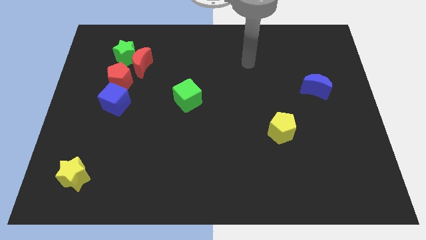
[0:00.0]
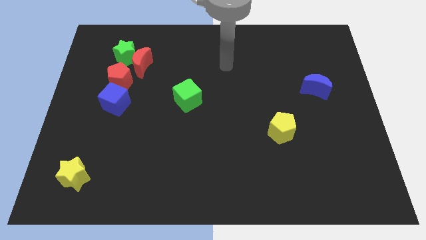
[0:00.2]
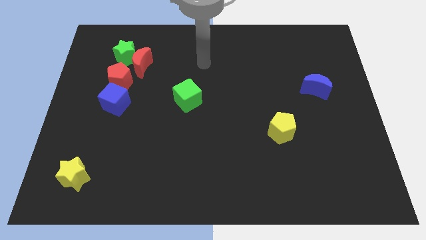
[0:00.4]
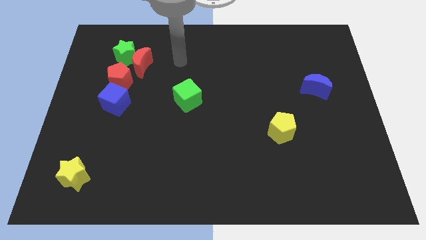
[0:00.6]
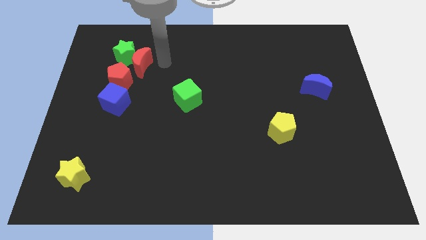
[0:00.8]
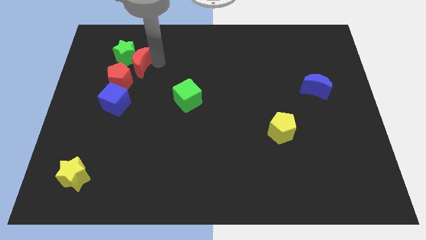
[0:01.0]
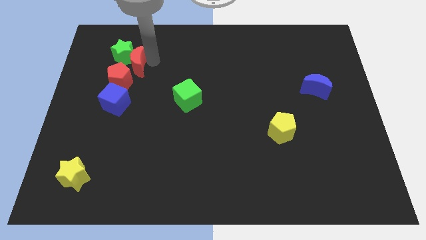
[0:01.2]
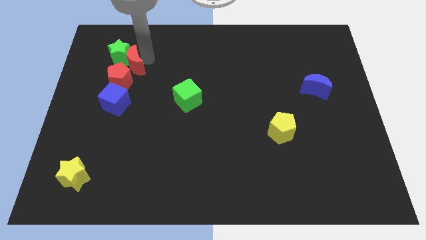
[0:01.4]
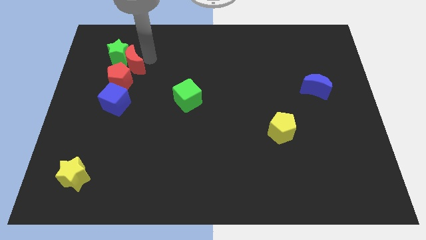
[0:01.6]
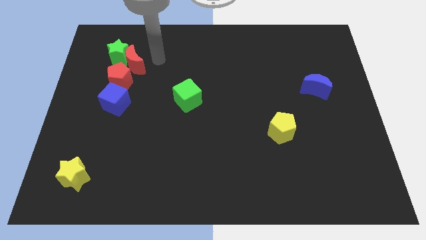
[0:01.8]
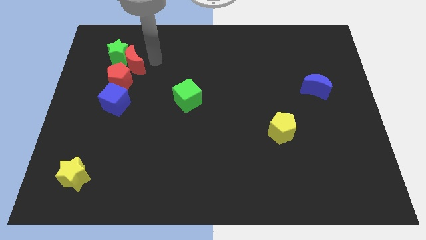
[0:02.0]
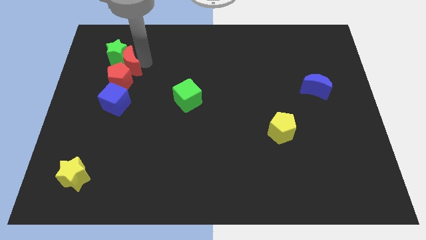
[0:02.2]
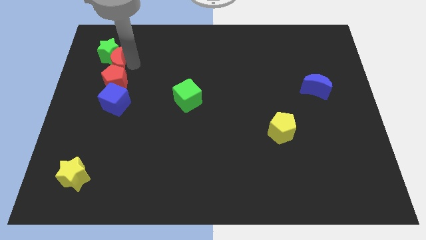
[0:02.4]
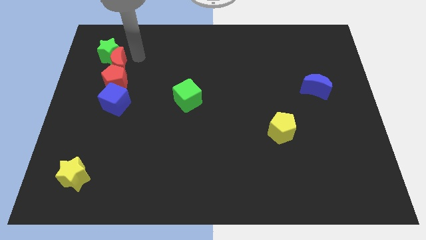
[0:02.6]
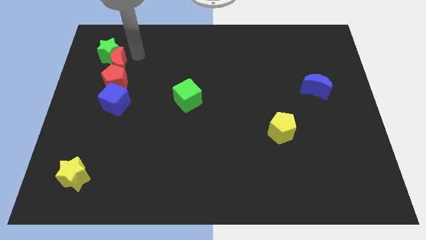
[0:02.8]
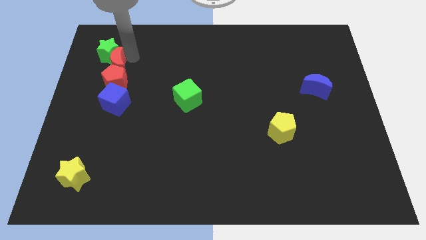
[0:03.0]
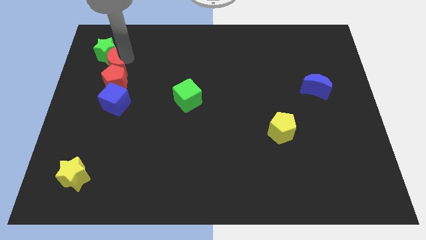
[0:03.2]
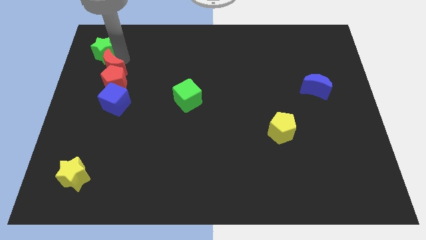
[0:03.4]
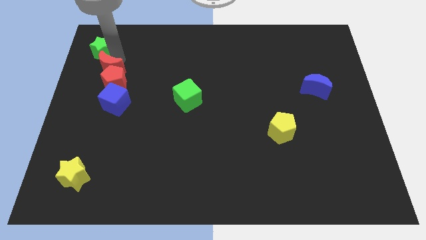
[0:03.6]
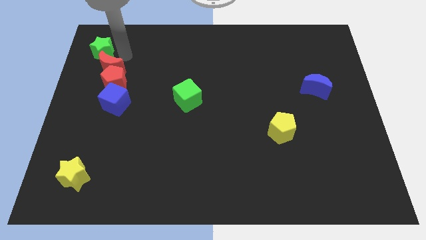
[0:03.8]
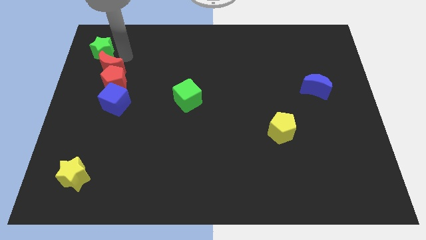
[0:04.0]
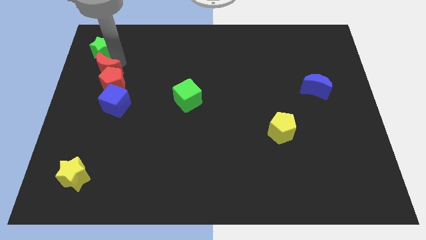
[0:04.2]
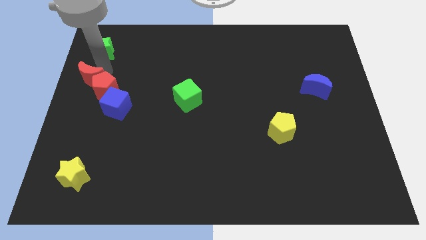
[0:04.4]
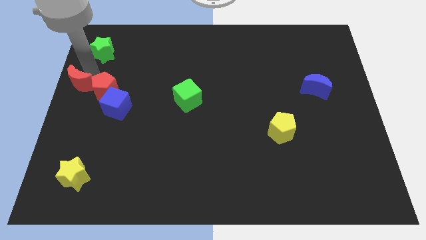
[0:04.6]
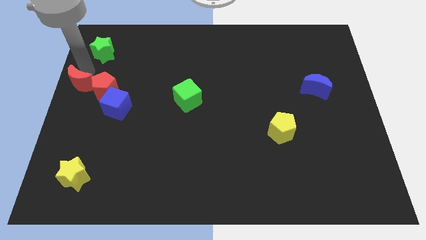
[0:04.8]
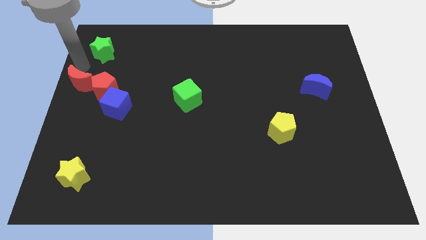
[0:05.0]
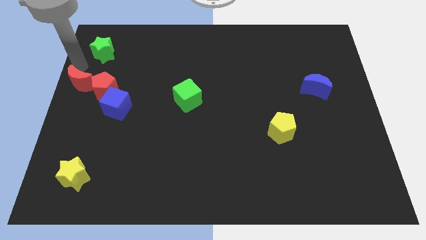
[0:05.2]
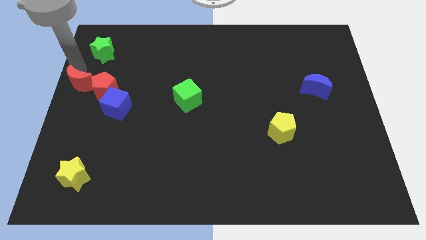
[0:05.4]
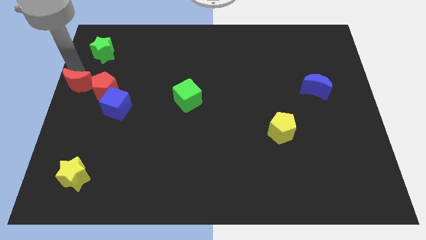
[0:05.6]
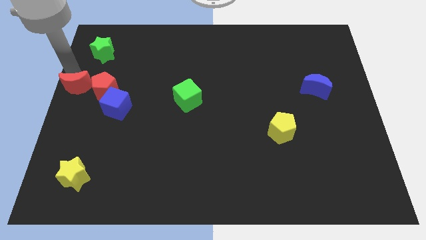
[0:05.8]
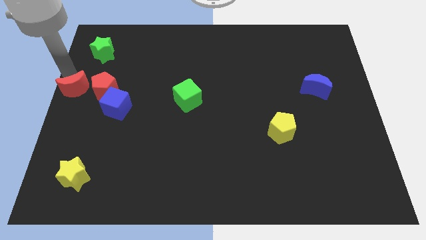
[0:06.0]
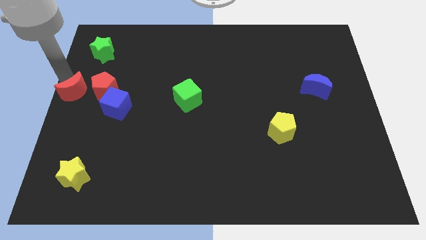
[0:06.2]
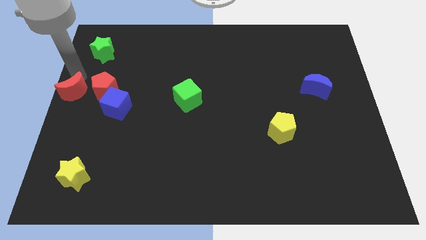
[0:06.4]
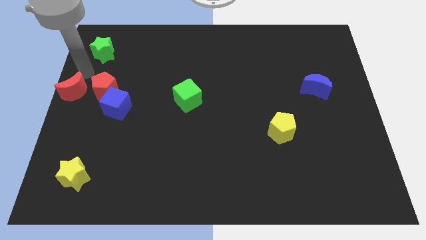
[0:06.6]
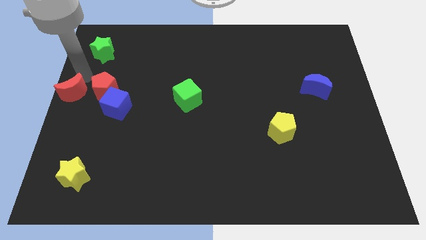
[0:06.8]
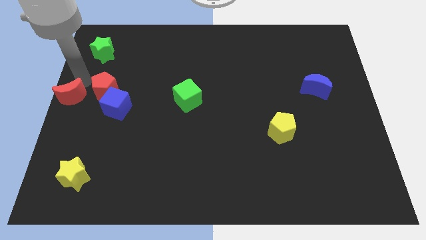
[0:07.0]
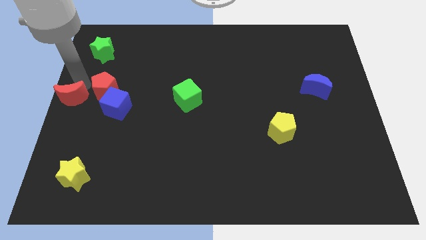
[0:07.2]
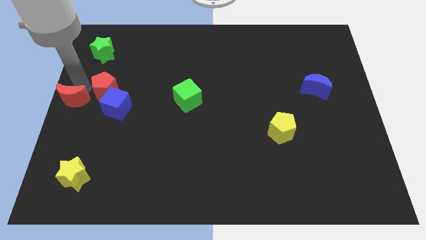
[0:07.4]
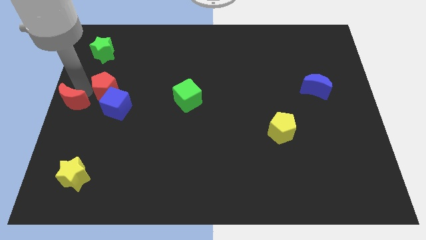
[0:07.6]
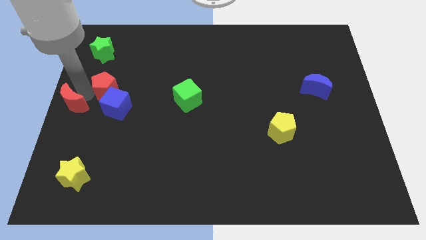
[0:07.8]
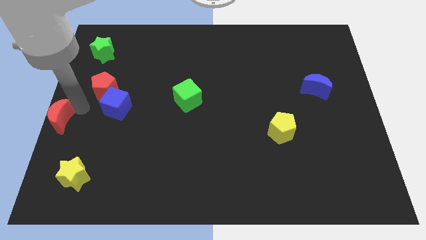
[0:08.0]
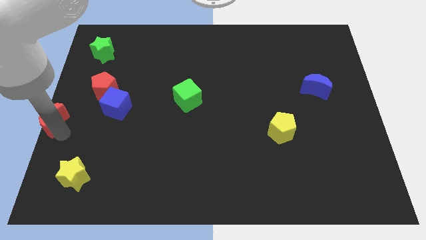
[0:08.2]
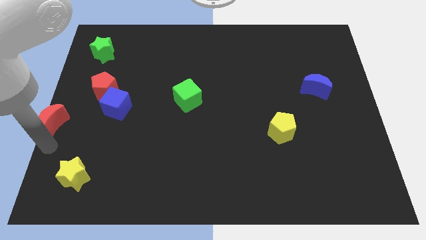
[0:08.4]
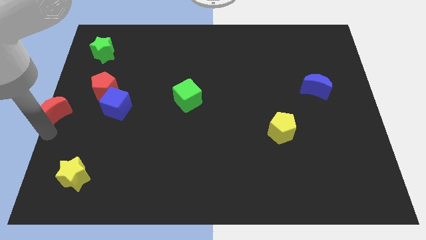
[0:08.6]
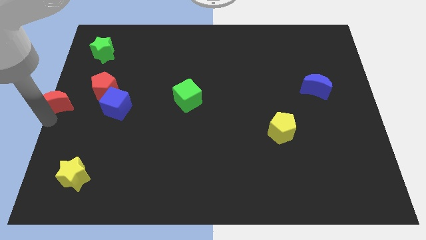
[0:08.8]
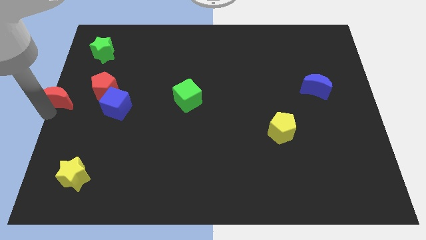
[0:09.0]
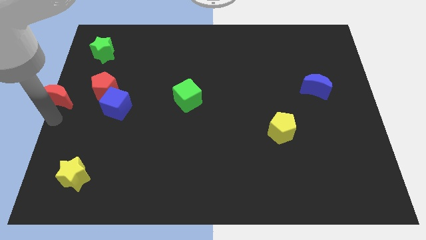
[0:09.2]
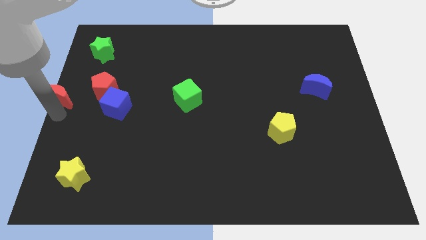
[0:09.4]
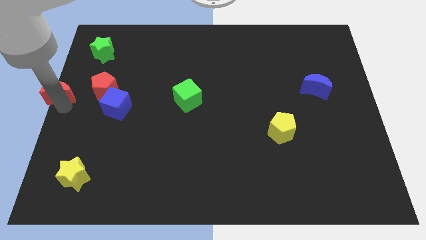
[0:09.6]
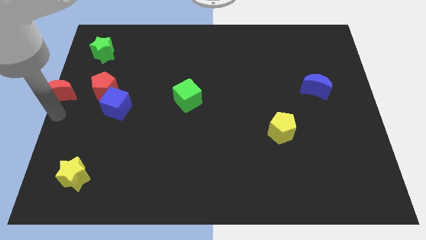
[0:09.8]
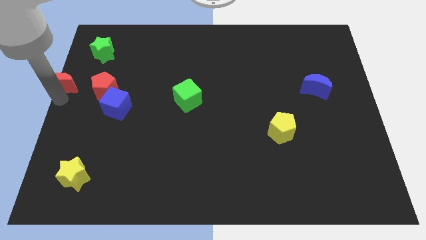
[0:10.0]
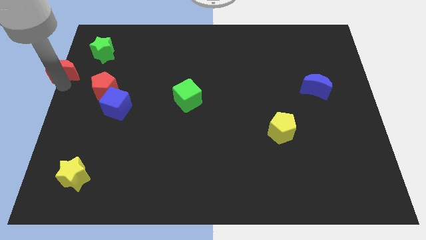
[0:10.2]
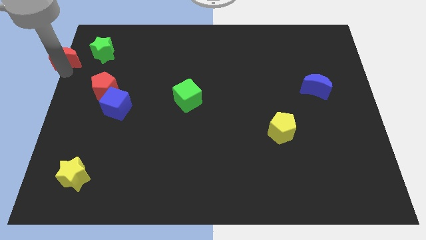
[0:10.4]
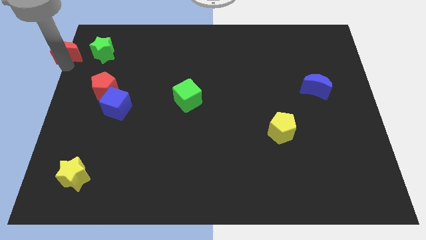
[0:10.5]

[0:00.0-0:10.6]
slide the red moon to the top left corner

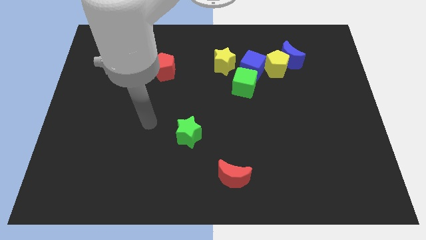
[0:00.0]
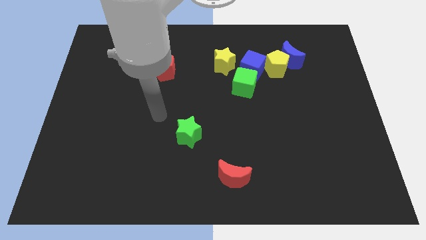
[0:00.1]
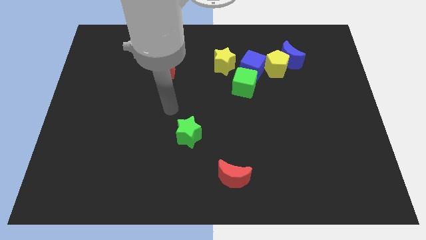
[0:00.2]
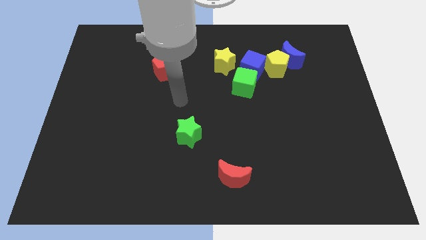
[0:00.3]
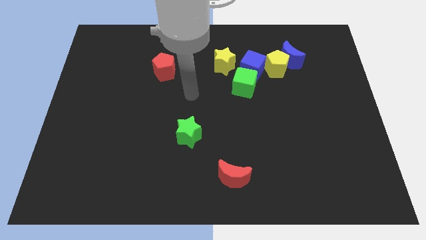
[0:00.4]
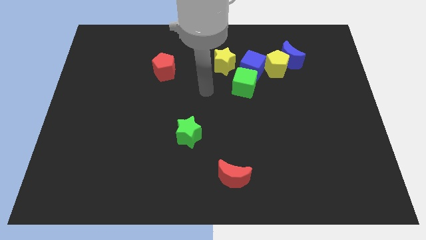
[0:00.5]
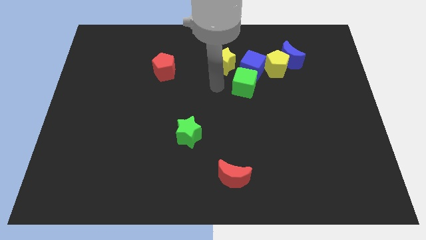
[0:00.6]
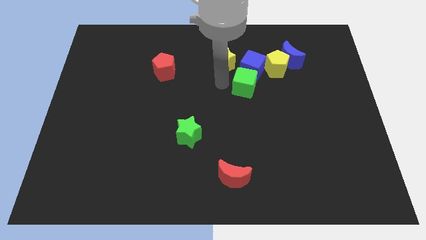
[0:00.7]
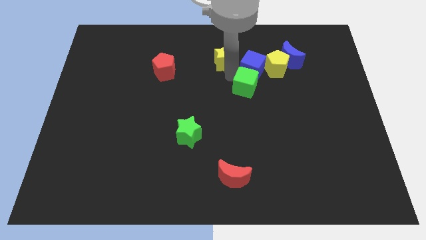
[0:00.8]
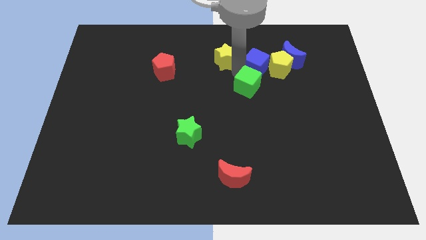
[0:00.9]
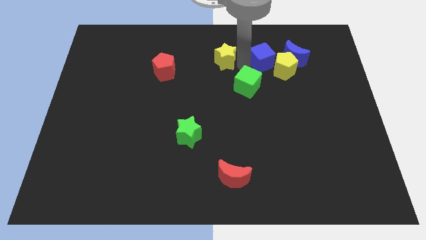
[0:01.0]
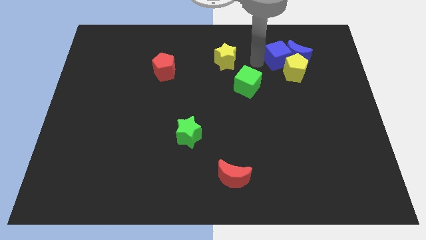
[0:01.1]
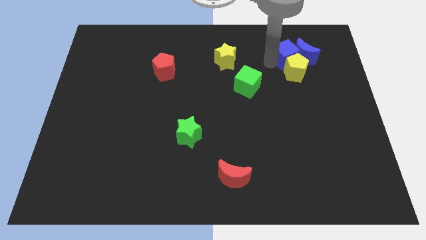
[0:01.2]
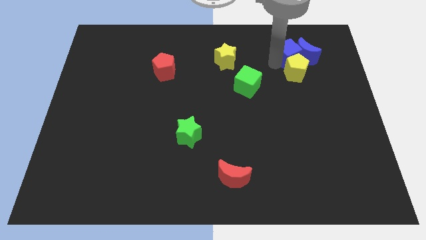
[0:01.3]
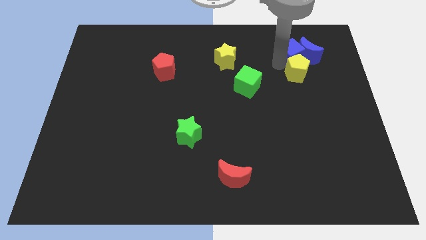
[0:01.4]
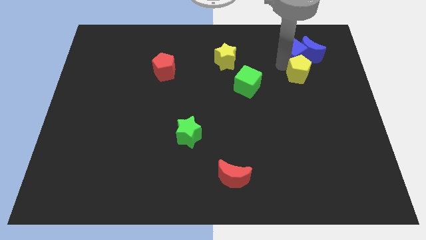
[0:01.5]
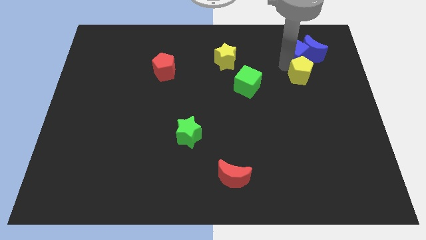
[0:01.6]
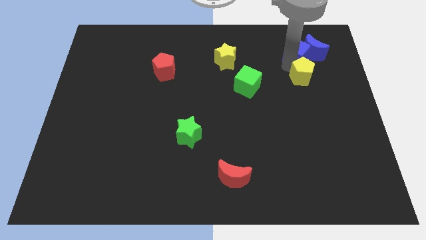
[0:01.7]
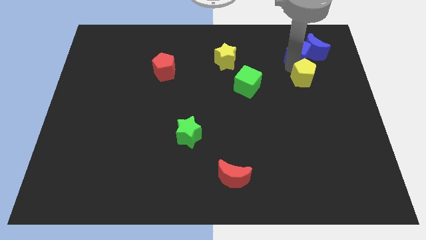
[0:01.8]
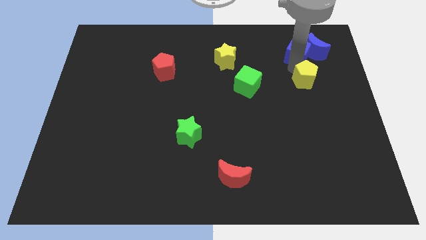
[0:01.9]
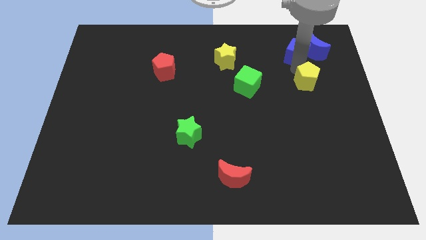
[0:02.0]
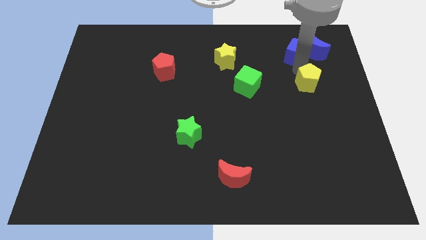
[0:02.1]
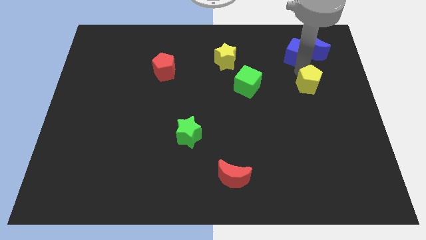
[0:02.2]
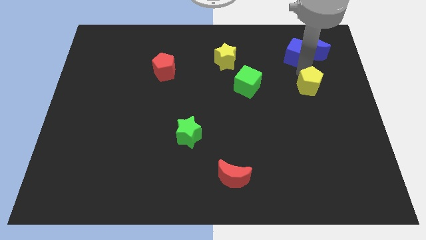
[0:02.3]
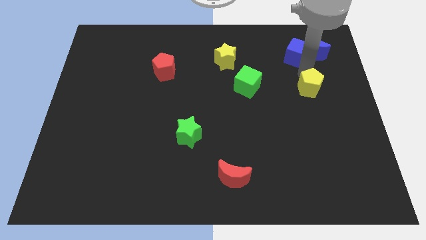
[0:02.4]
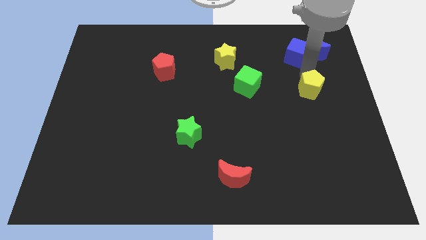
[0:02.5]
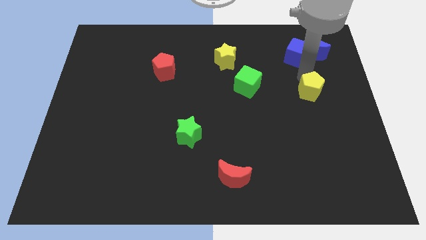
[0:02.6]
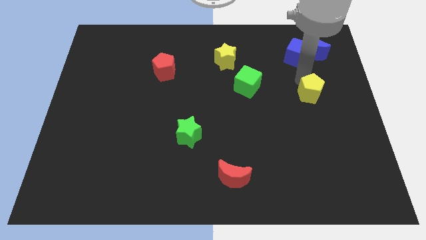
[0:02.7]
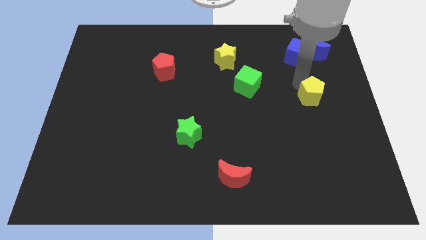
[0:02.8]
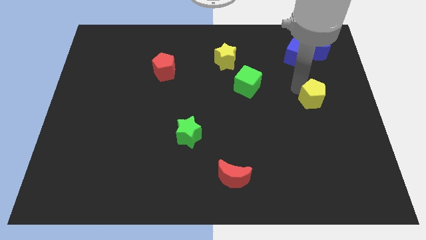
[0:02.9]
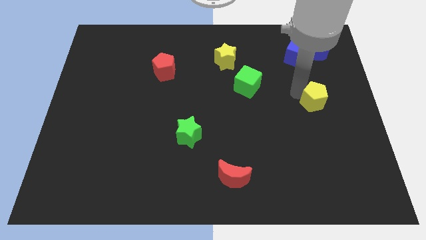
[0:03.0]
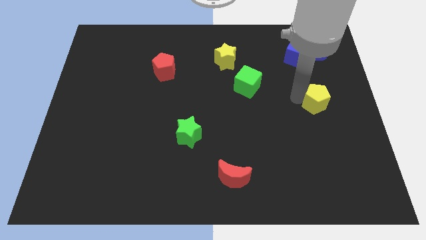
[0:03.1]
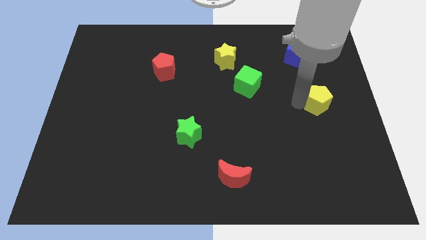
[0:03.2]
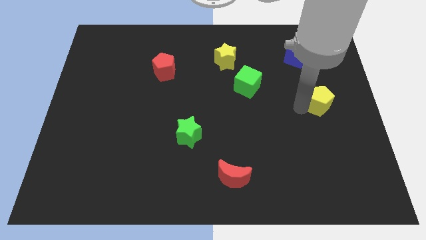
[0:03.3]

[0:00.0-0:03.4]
push the yellow pentagon to the right side of the board
